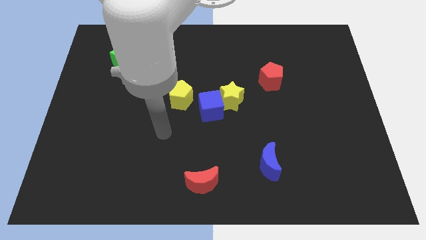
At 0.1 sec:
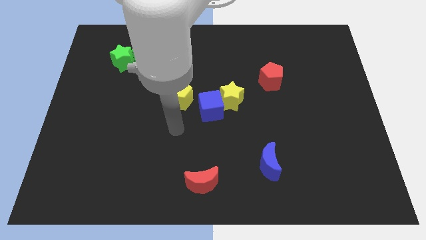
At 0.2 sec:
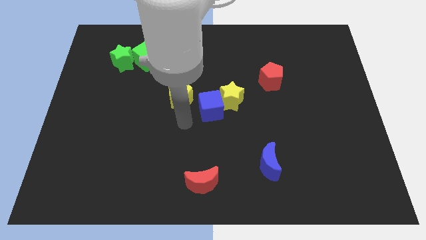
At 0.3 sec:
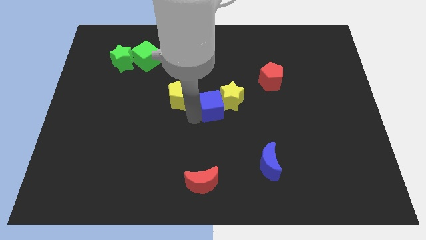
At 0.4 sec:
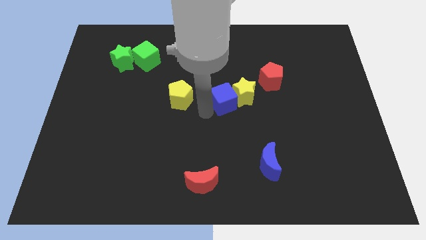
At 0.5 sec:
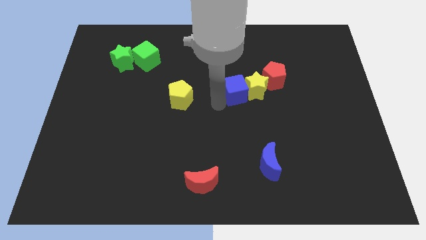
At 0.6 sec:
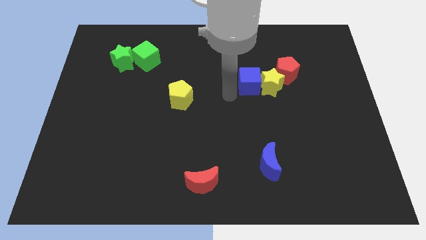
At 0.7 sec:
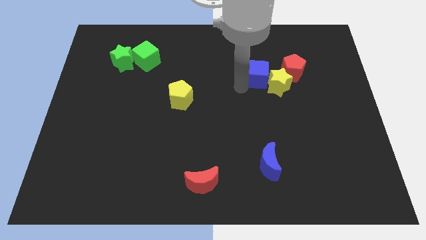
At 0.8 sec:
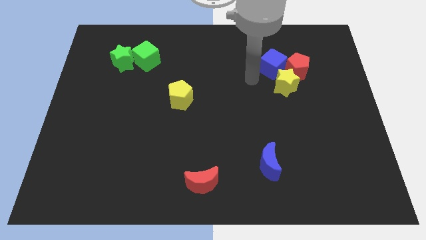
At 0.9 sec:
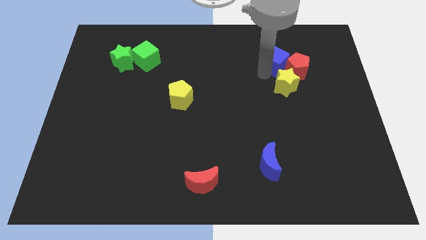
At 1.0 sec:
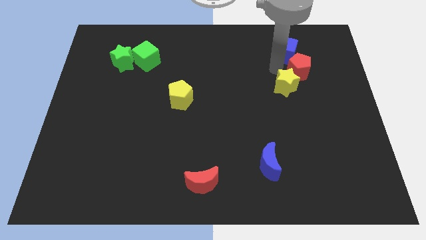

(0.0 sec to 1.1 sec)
move the yellow star away from the blue cube

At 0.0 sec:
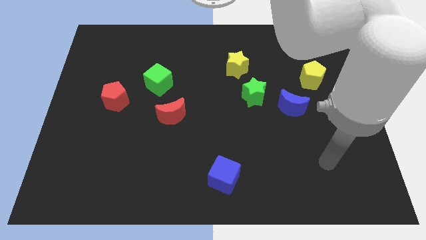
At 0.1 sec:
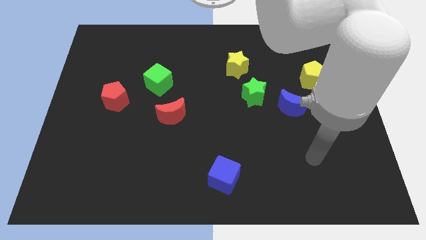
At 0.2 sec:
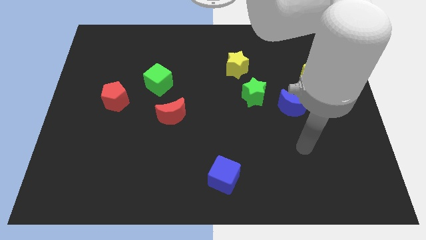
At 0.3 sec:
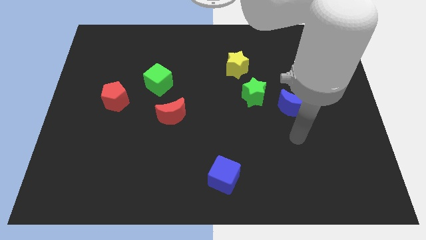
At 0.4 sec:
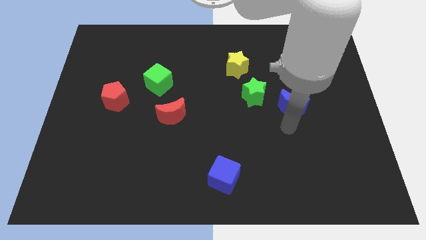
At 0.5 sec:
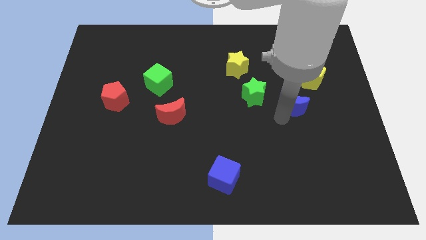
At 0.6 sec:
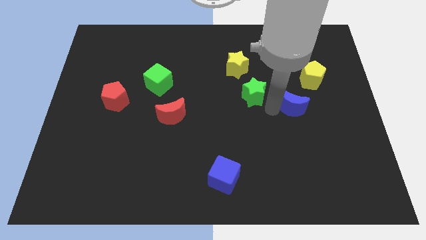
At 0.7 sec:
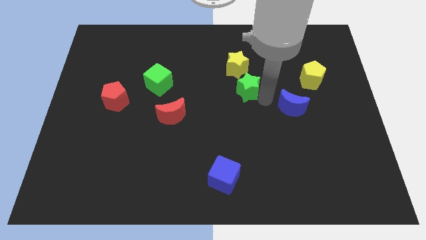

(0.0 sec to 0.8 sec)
separate the blue moon from the green star

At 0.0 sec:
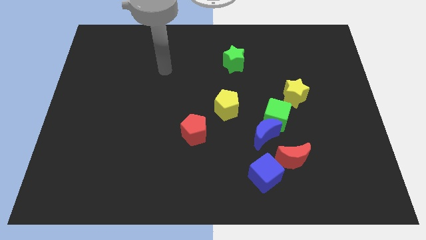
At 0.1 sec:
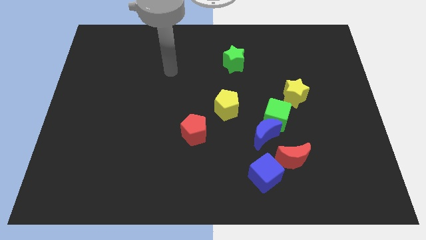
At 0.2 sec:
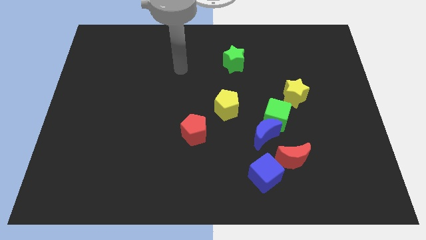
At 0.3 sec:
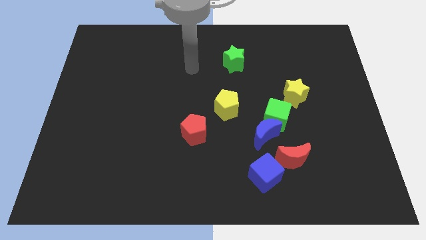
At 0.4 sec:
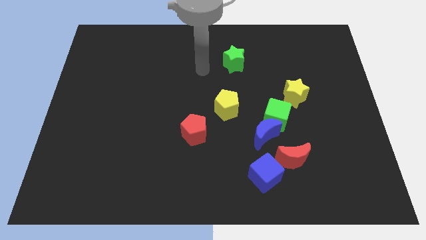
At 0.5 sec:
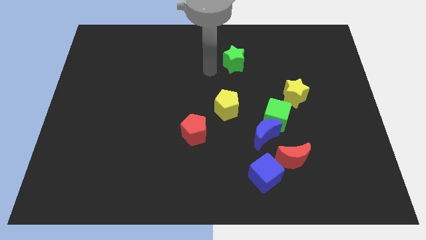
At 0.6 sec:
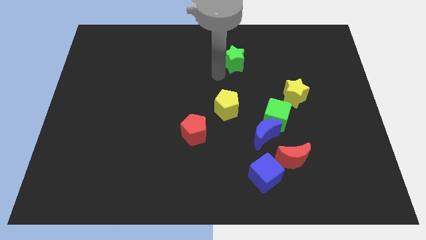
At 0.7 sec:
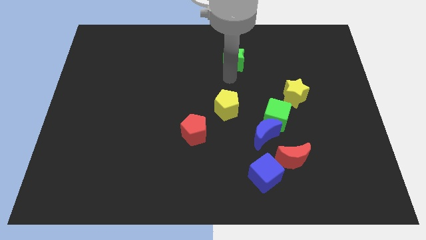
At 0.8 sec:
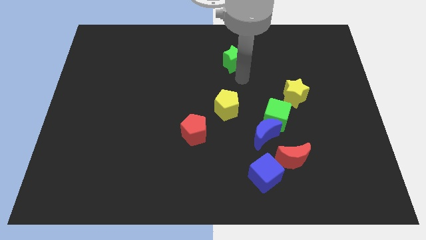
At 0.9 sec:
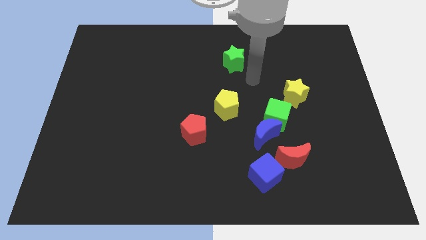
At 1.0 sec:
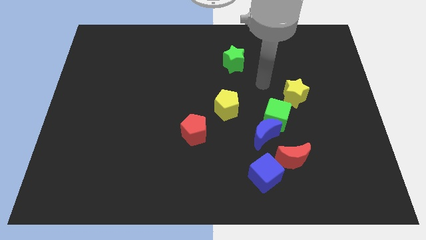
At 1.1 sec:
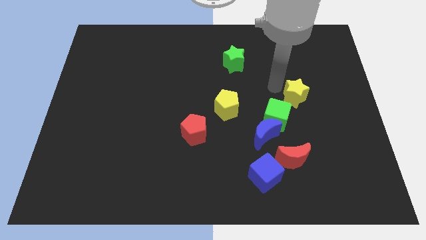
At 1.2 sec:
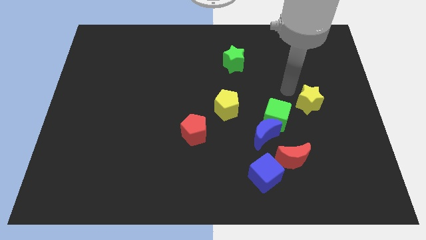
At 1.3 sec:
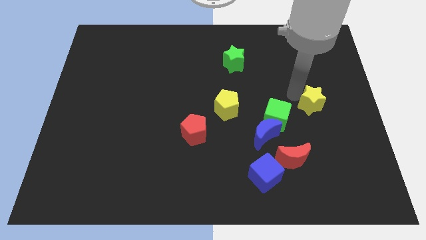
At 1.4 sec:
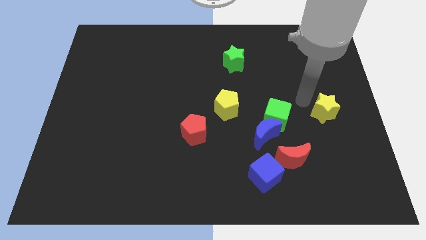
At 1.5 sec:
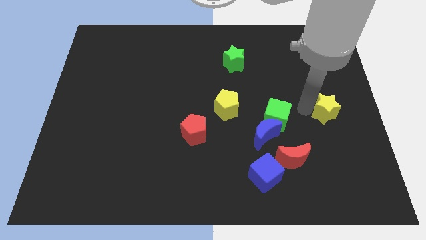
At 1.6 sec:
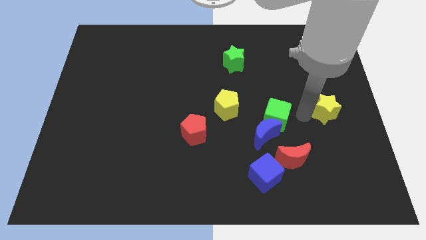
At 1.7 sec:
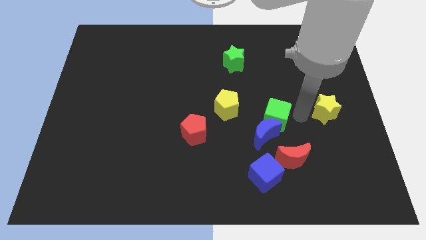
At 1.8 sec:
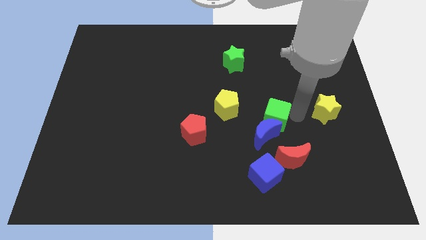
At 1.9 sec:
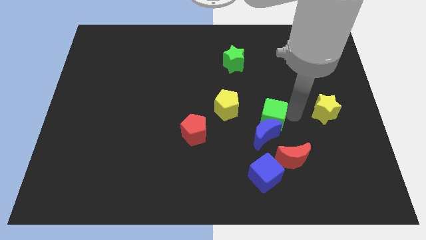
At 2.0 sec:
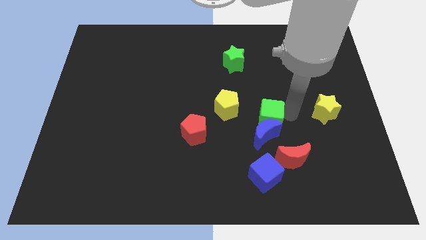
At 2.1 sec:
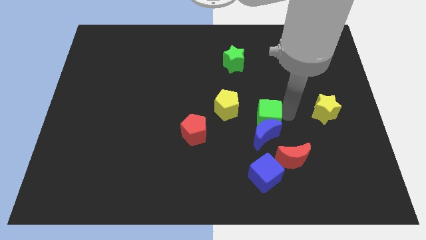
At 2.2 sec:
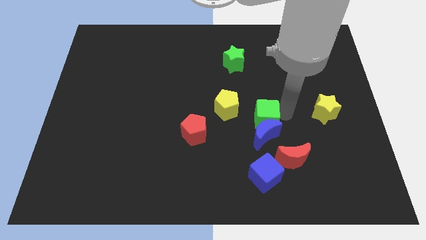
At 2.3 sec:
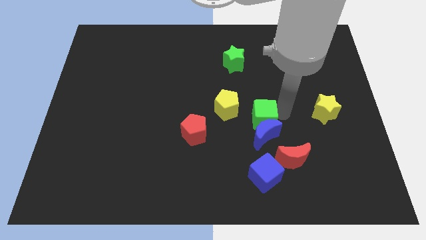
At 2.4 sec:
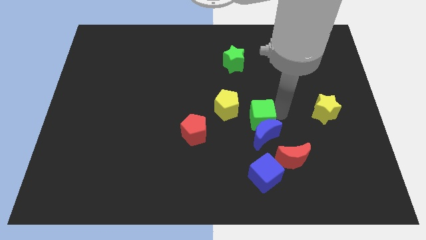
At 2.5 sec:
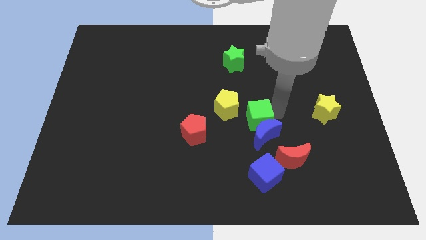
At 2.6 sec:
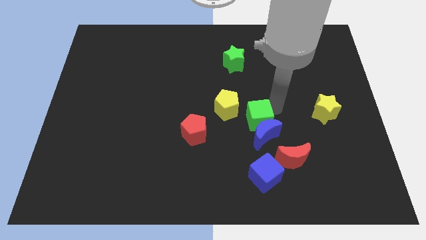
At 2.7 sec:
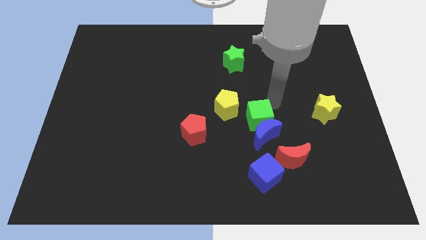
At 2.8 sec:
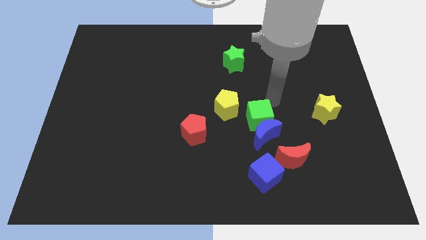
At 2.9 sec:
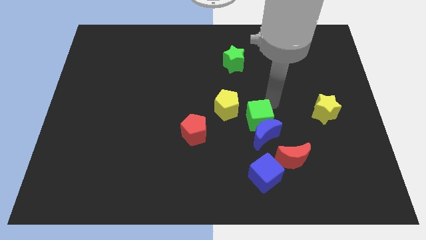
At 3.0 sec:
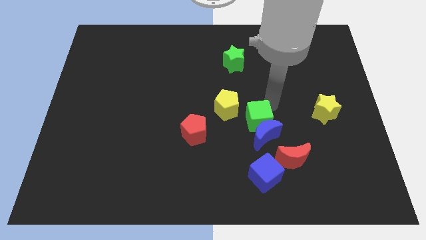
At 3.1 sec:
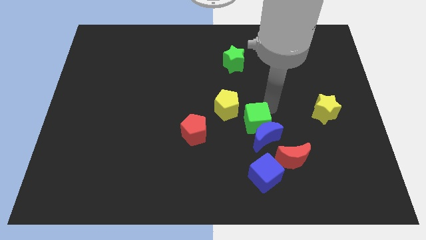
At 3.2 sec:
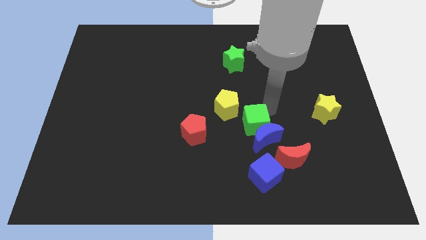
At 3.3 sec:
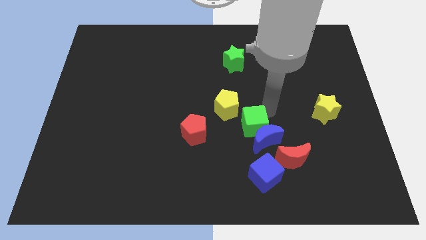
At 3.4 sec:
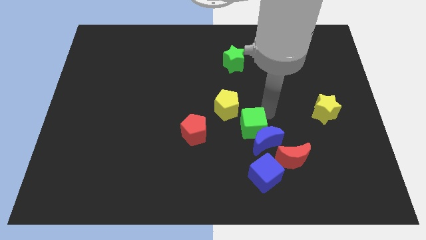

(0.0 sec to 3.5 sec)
move the green cube away from the blue moon and yellow star

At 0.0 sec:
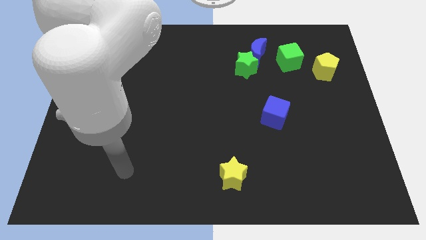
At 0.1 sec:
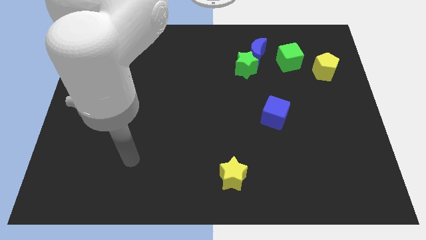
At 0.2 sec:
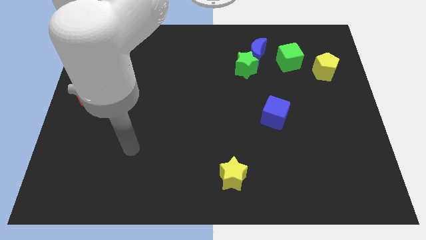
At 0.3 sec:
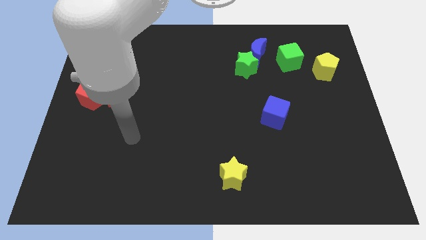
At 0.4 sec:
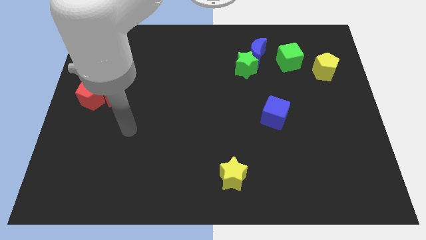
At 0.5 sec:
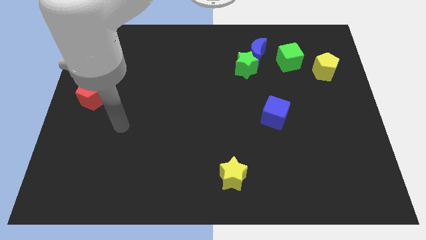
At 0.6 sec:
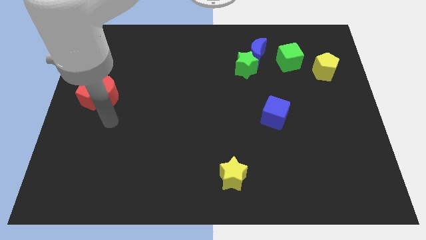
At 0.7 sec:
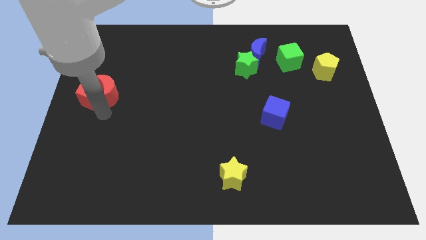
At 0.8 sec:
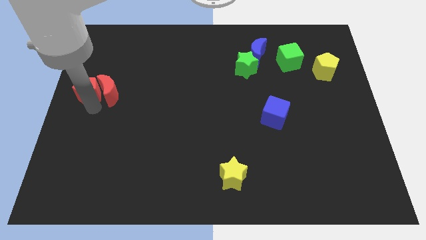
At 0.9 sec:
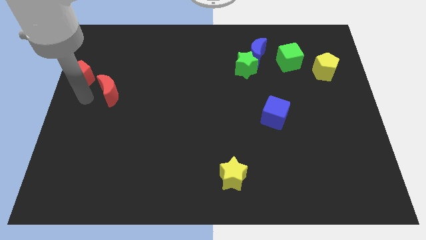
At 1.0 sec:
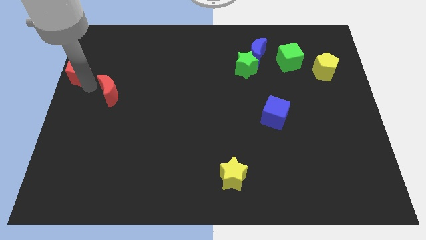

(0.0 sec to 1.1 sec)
move the red moon away from the red pentagon

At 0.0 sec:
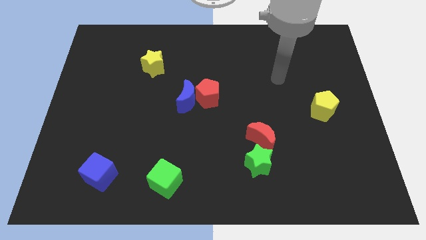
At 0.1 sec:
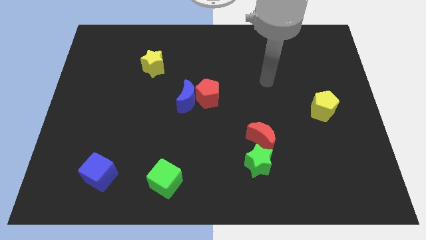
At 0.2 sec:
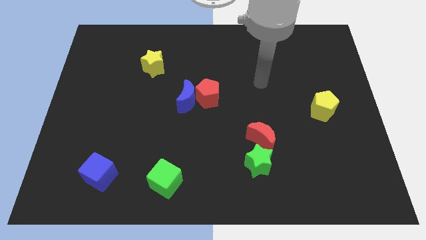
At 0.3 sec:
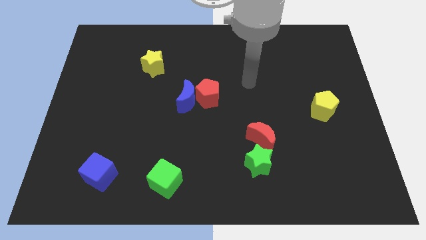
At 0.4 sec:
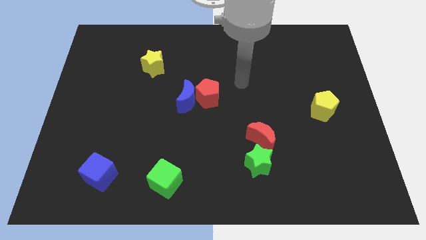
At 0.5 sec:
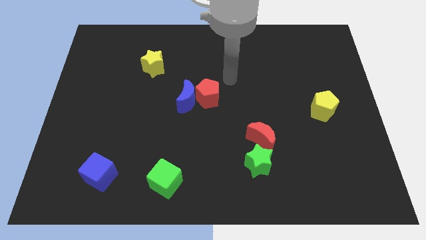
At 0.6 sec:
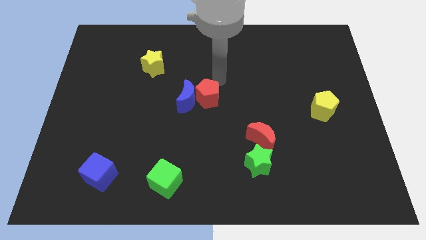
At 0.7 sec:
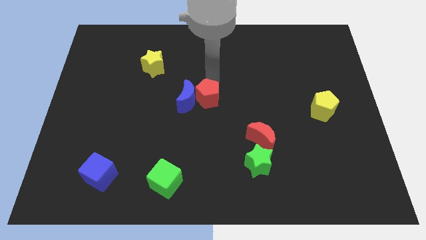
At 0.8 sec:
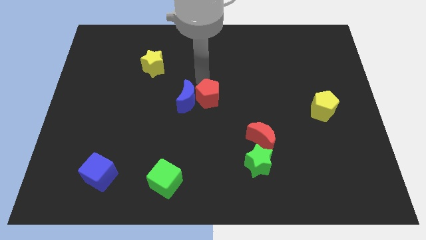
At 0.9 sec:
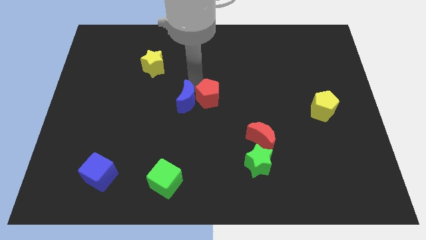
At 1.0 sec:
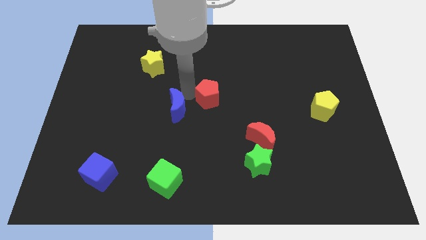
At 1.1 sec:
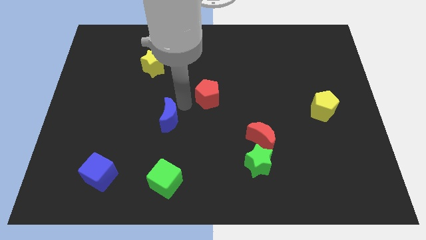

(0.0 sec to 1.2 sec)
separate the red pentagon from the blue moon

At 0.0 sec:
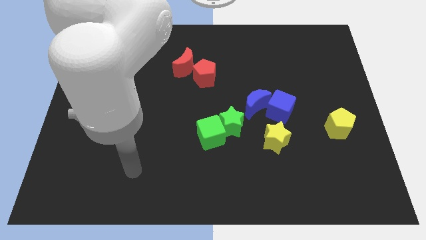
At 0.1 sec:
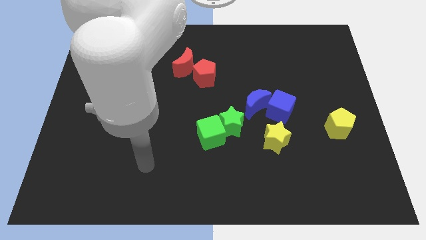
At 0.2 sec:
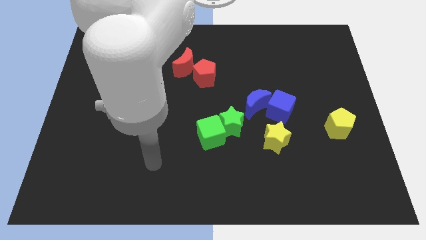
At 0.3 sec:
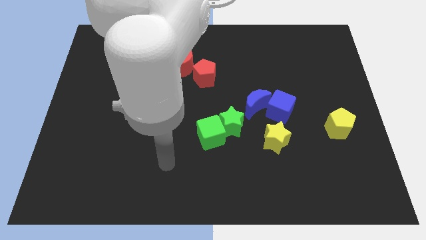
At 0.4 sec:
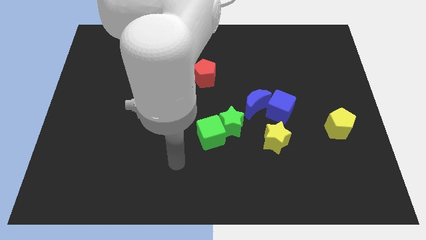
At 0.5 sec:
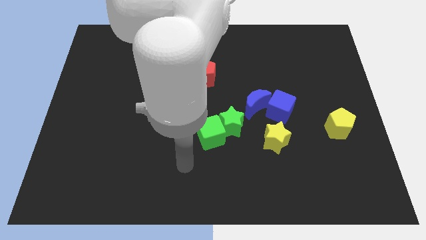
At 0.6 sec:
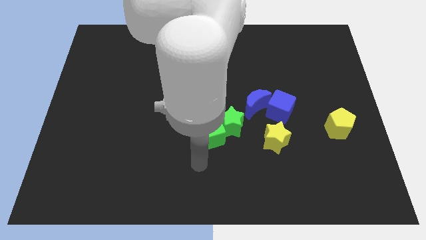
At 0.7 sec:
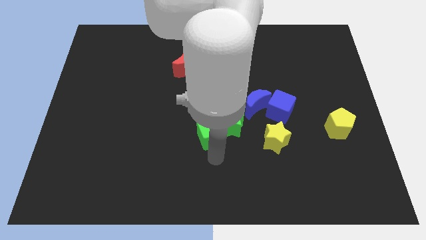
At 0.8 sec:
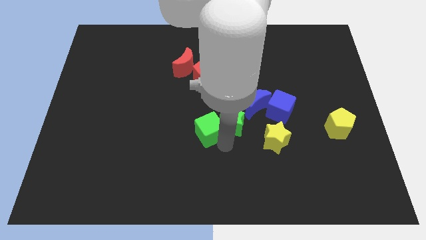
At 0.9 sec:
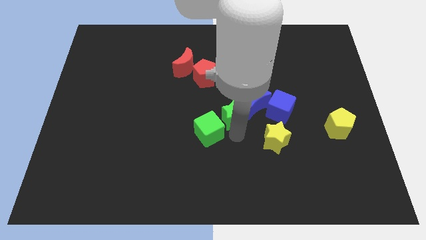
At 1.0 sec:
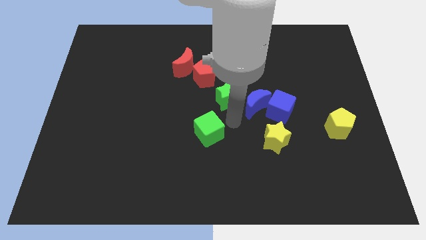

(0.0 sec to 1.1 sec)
move the green cube away from the green star

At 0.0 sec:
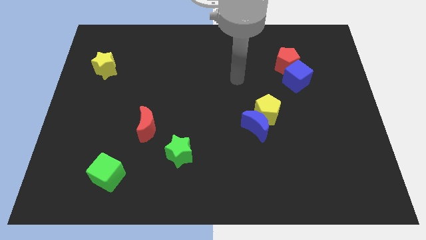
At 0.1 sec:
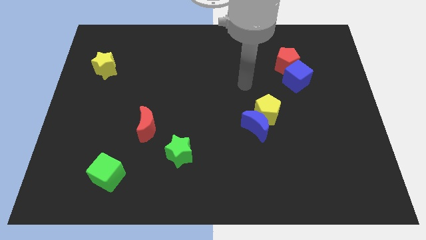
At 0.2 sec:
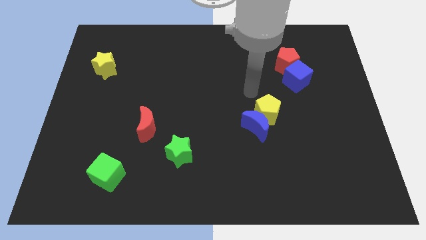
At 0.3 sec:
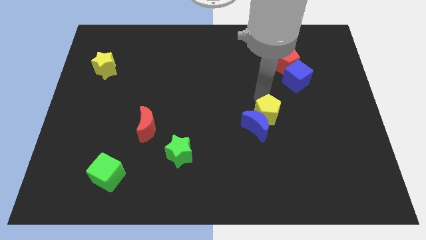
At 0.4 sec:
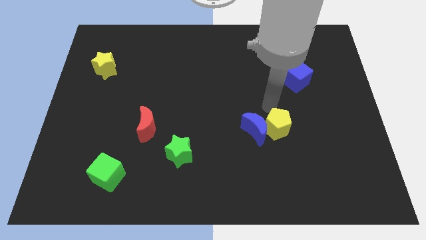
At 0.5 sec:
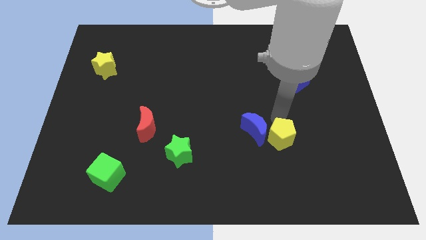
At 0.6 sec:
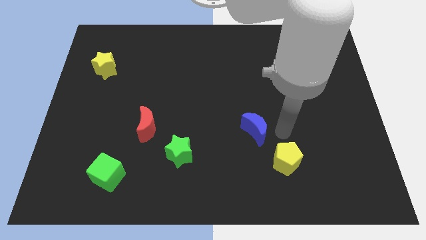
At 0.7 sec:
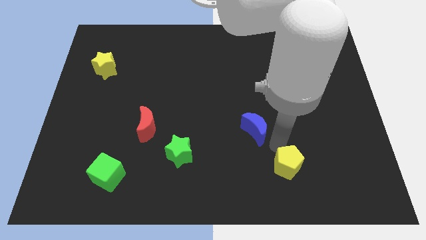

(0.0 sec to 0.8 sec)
pull the blue moon apart from the yellow pentagon
